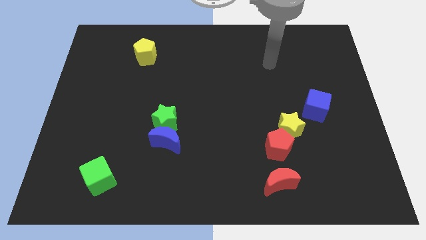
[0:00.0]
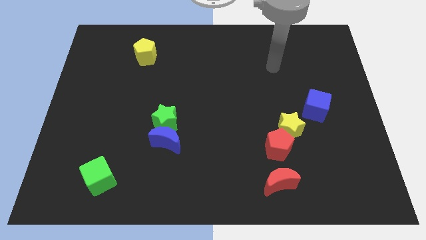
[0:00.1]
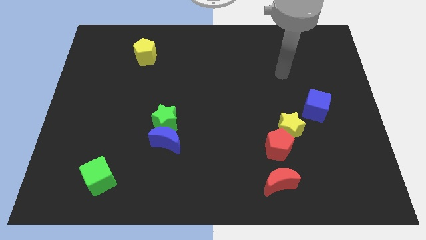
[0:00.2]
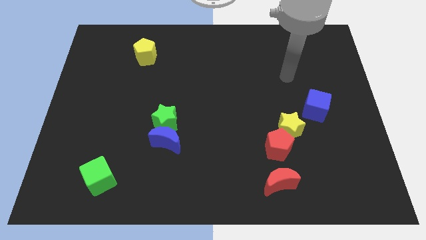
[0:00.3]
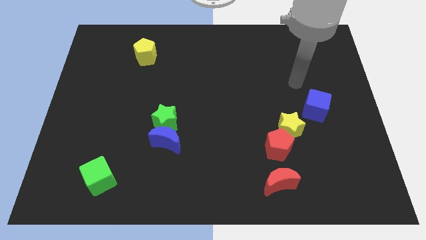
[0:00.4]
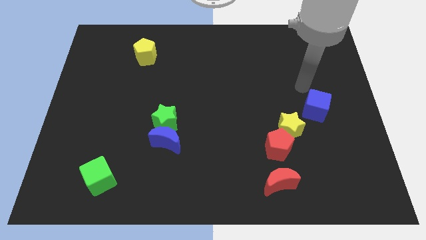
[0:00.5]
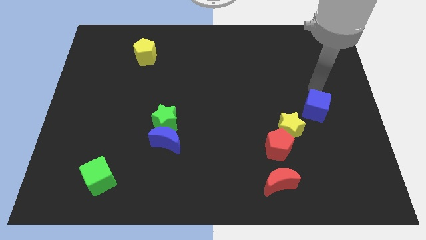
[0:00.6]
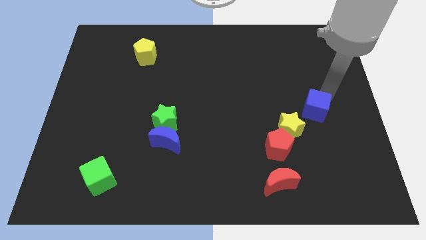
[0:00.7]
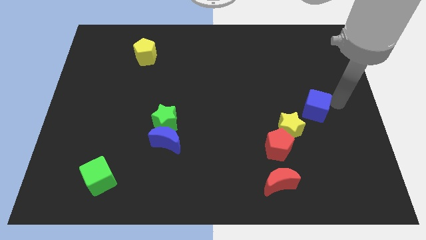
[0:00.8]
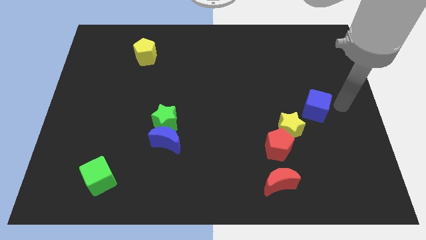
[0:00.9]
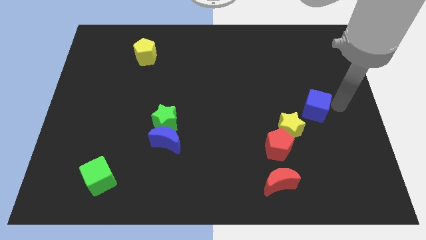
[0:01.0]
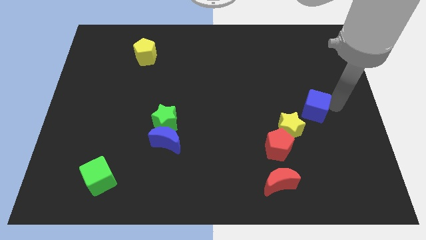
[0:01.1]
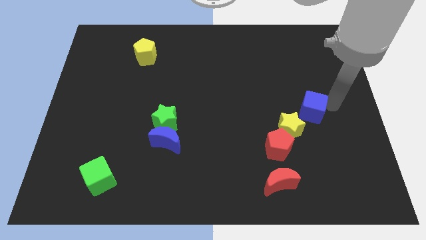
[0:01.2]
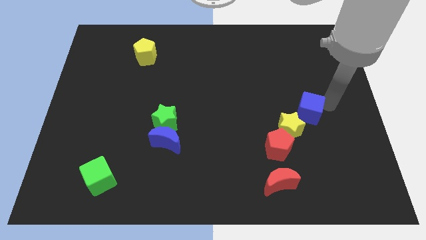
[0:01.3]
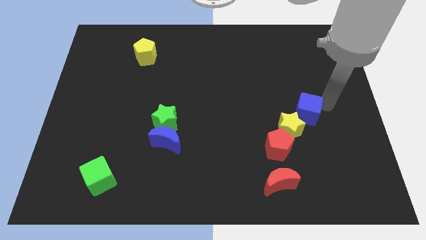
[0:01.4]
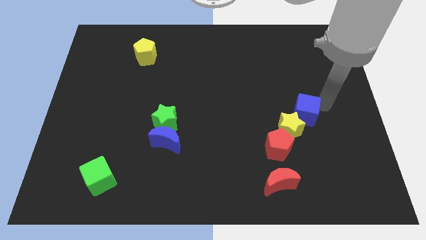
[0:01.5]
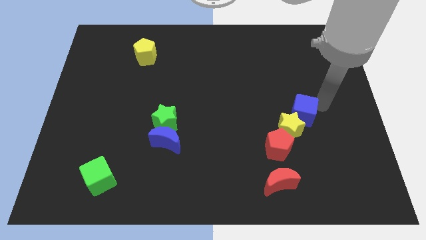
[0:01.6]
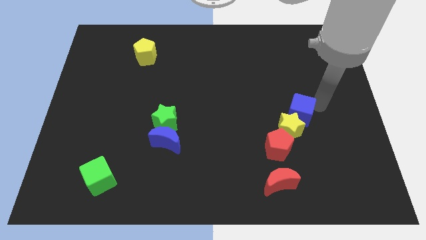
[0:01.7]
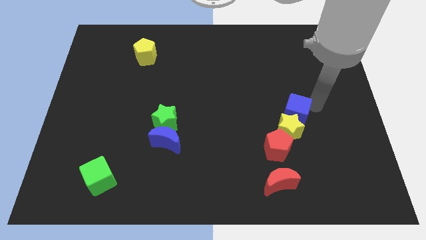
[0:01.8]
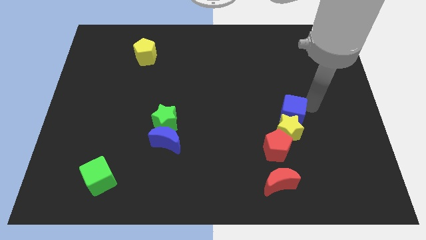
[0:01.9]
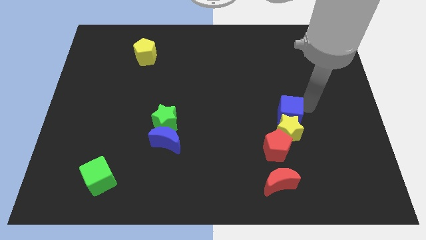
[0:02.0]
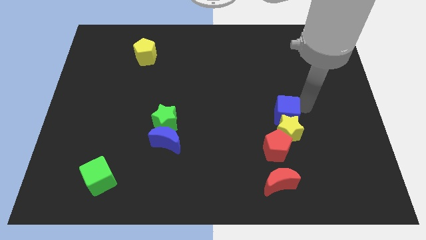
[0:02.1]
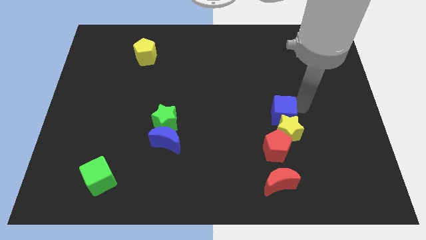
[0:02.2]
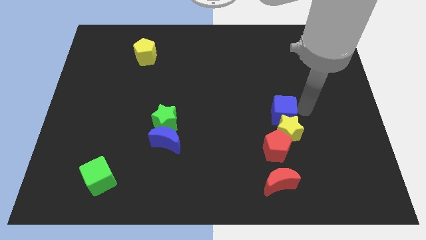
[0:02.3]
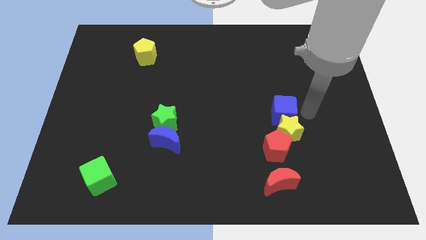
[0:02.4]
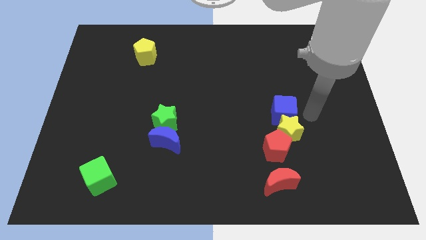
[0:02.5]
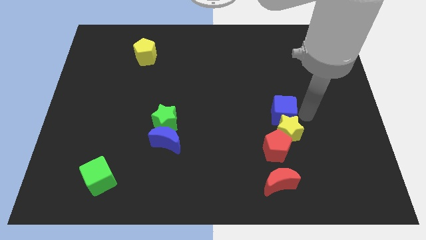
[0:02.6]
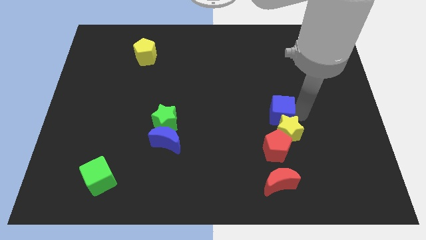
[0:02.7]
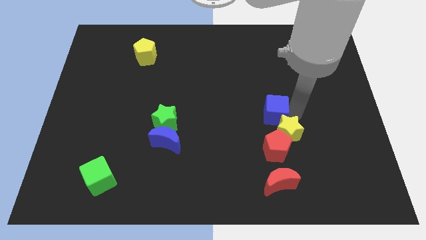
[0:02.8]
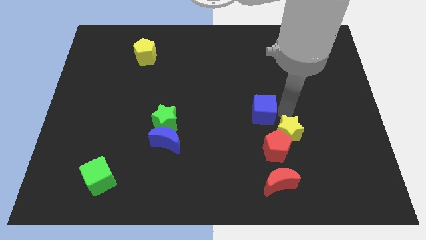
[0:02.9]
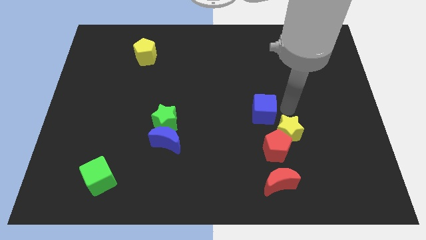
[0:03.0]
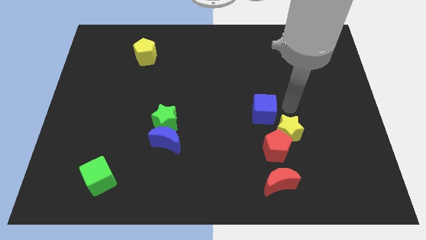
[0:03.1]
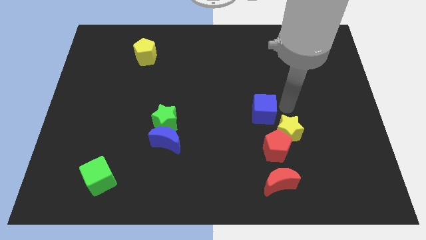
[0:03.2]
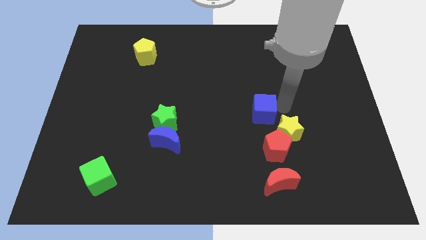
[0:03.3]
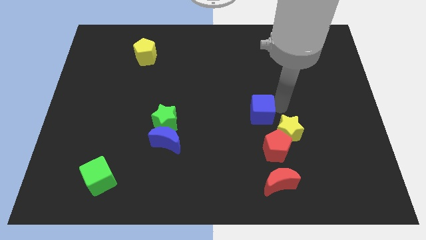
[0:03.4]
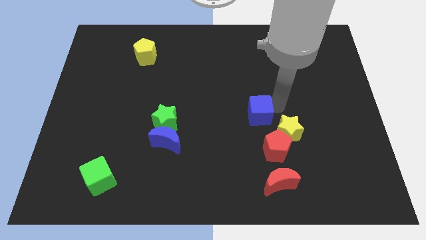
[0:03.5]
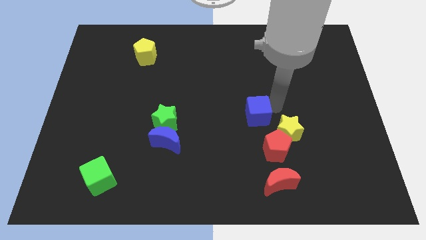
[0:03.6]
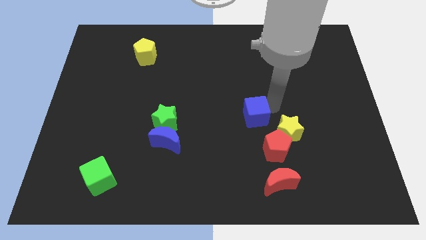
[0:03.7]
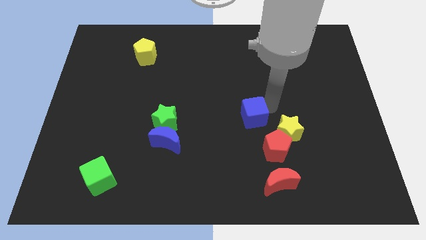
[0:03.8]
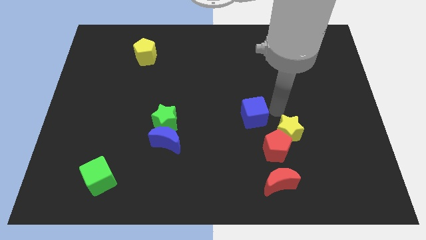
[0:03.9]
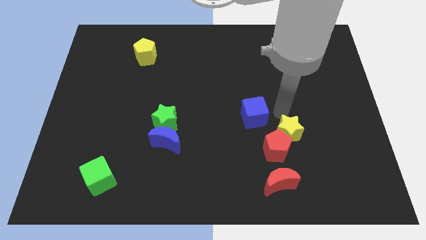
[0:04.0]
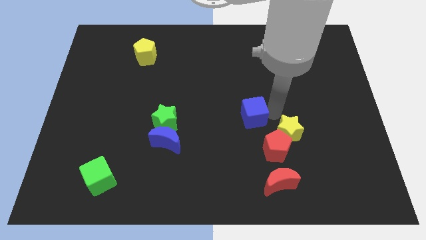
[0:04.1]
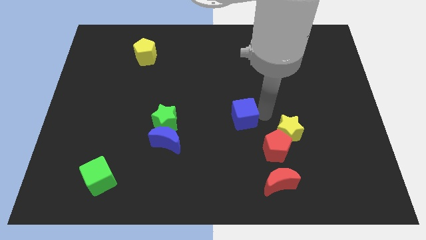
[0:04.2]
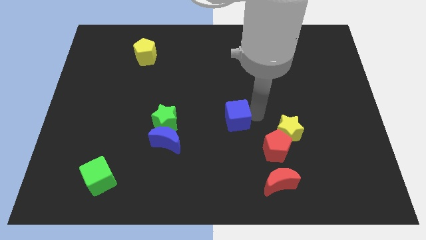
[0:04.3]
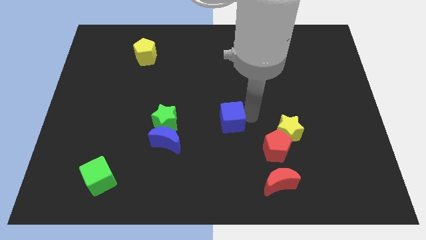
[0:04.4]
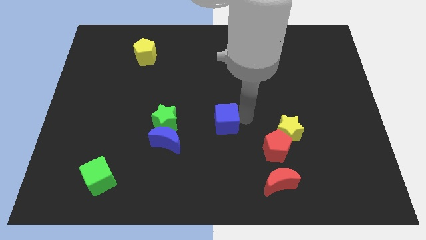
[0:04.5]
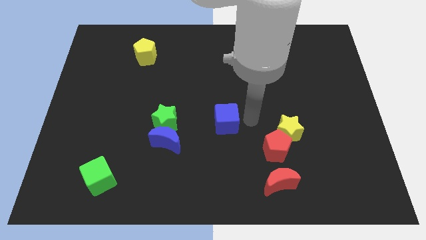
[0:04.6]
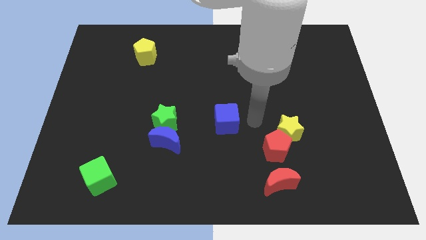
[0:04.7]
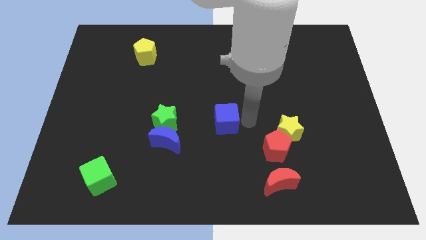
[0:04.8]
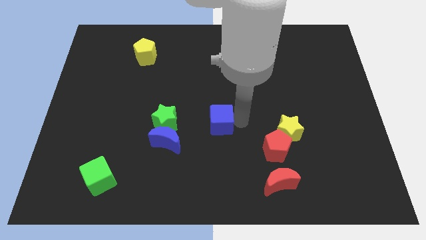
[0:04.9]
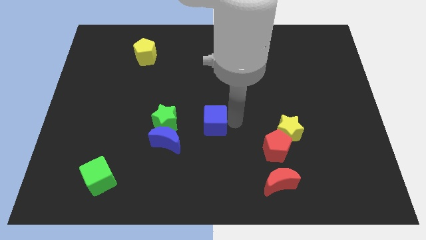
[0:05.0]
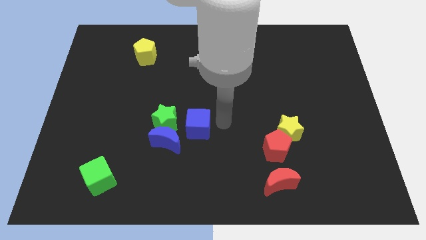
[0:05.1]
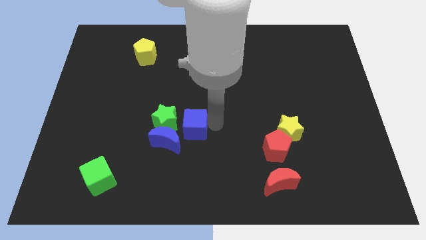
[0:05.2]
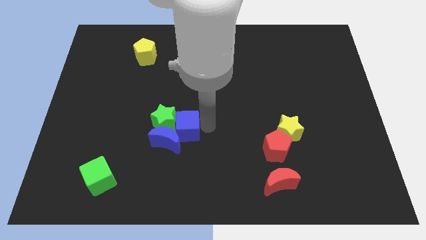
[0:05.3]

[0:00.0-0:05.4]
push the blue cube towards the green star

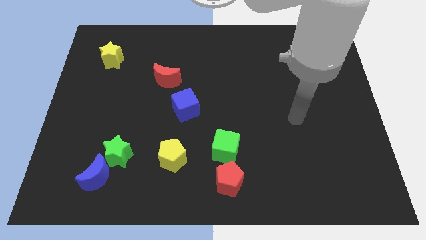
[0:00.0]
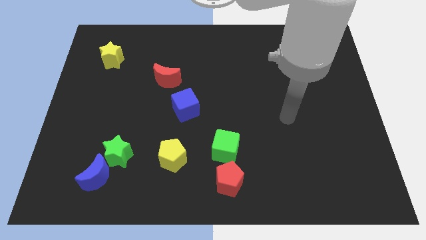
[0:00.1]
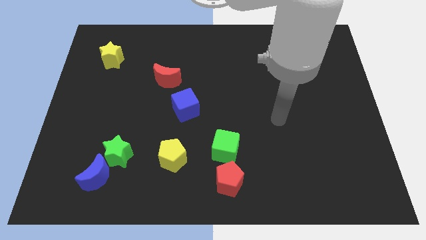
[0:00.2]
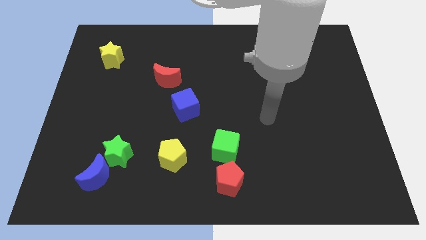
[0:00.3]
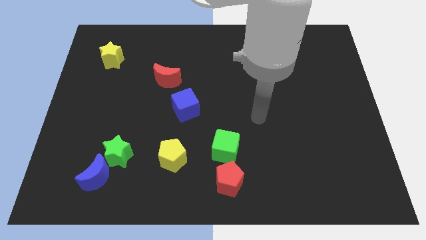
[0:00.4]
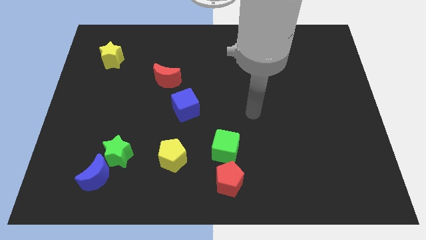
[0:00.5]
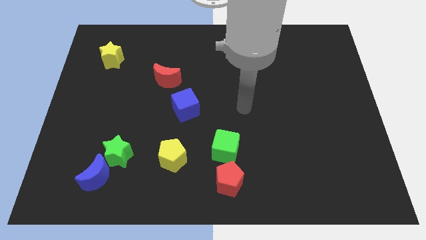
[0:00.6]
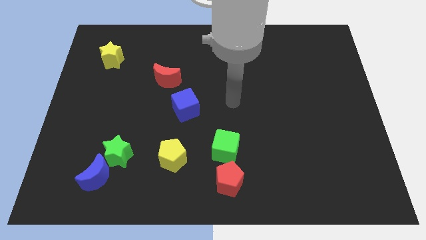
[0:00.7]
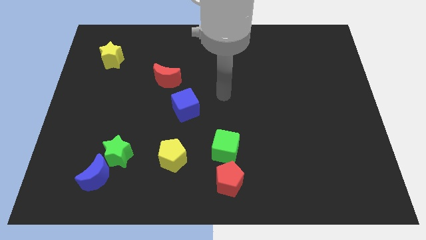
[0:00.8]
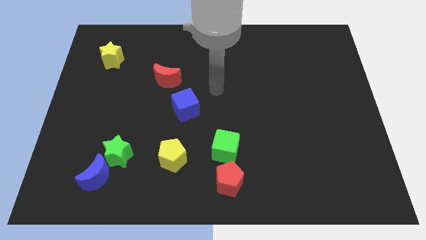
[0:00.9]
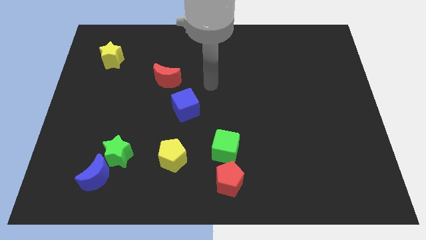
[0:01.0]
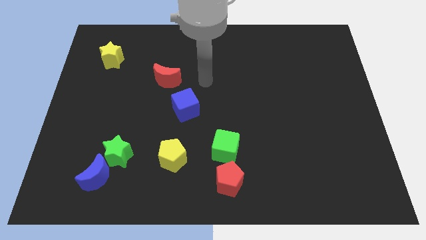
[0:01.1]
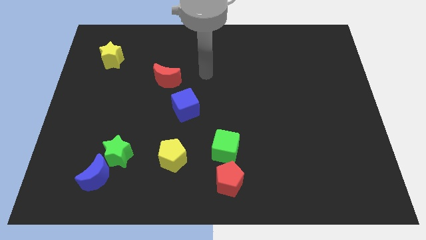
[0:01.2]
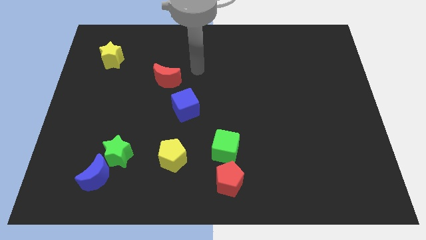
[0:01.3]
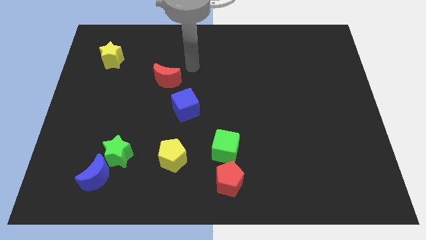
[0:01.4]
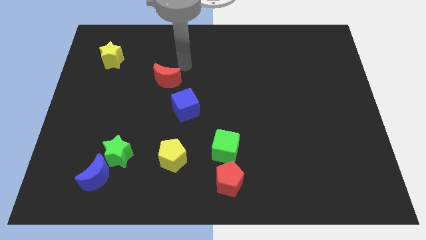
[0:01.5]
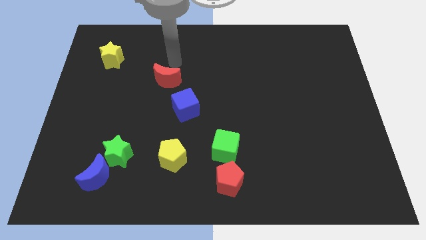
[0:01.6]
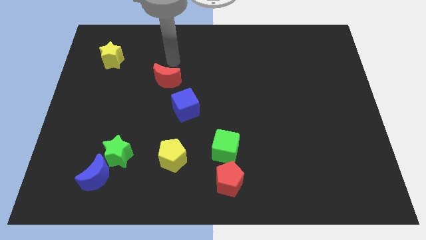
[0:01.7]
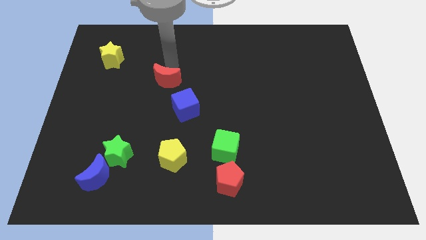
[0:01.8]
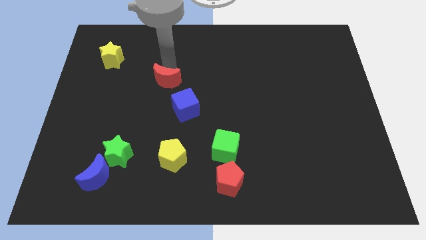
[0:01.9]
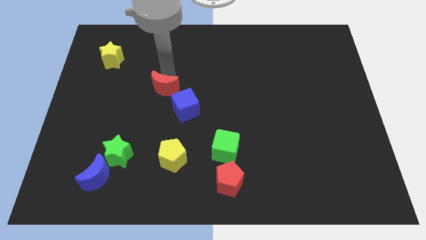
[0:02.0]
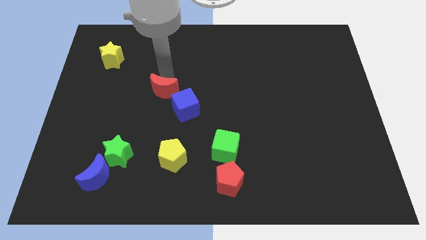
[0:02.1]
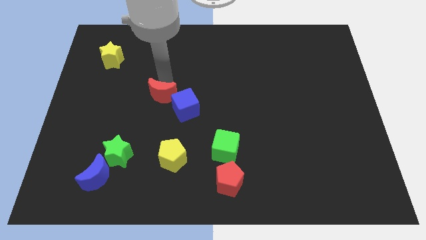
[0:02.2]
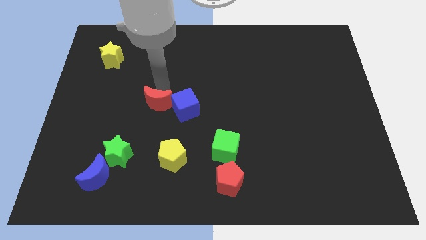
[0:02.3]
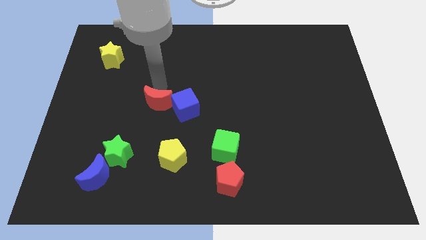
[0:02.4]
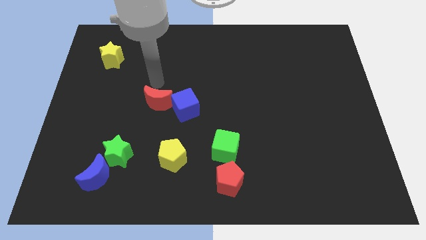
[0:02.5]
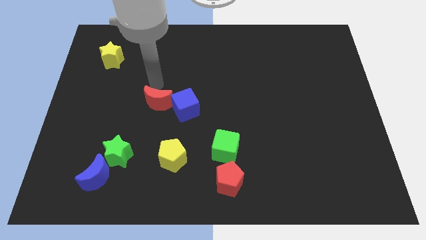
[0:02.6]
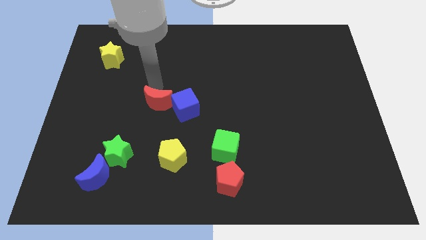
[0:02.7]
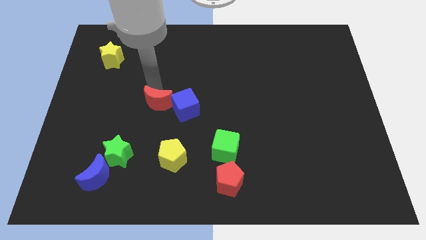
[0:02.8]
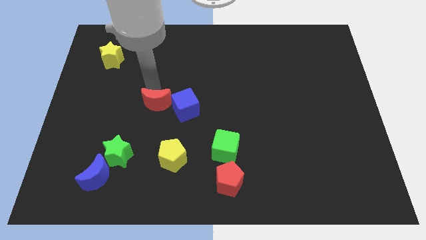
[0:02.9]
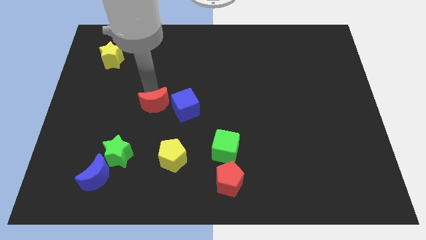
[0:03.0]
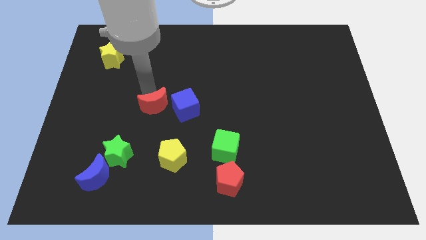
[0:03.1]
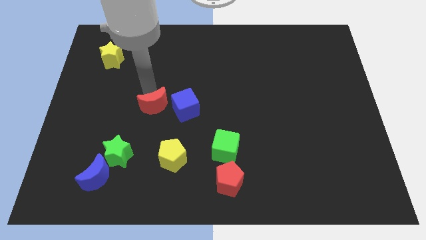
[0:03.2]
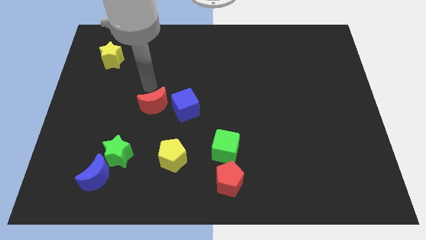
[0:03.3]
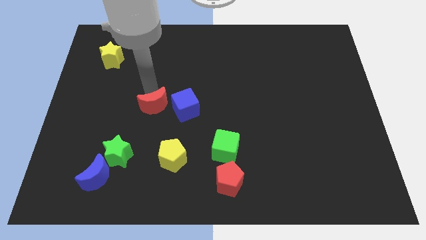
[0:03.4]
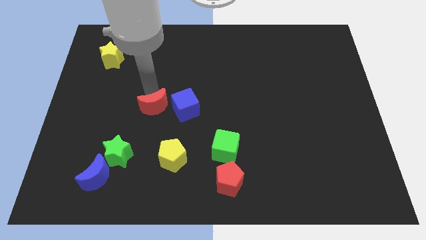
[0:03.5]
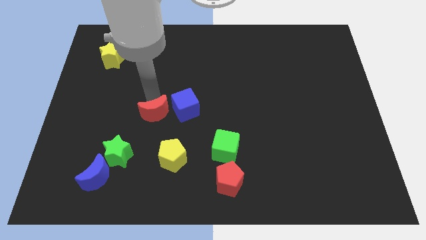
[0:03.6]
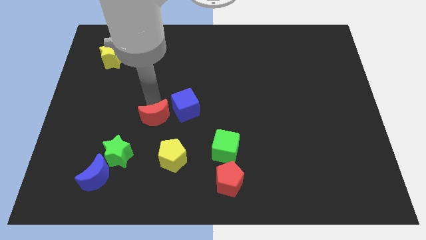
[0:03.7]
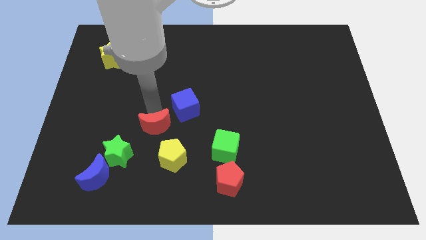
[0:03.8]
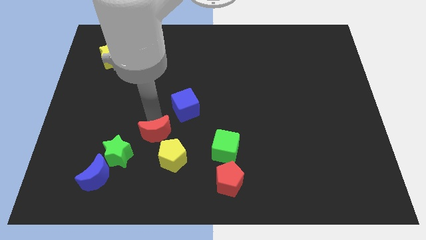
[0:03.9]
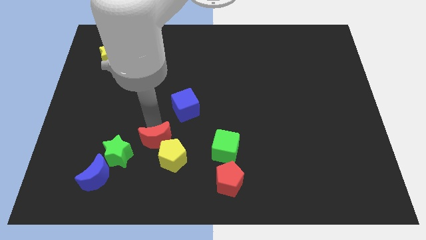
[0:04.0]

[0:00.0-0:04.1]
push the red moon towards the yellow pentagon
